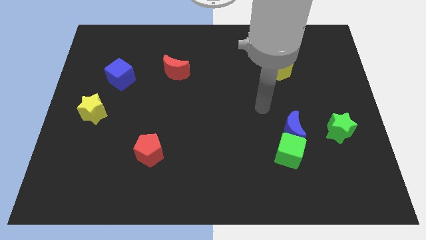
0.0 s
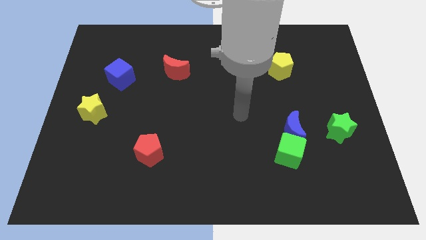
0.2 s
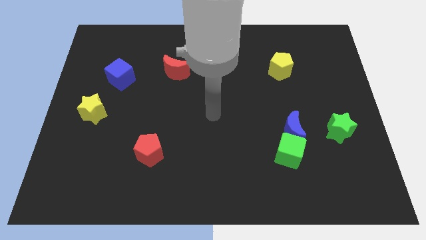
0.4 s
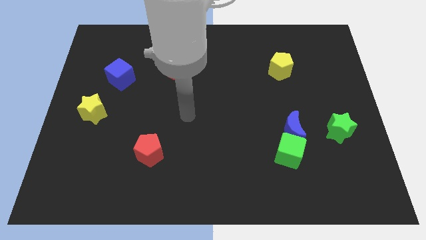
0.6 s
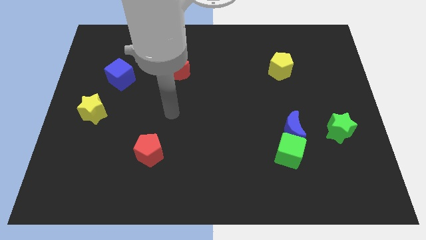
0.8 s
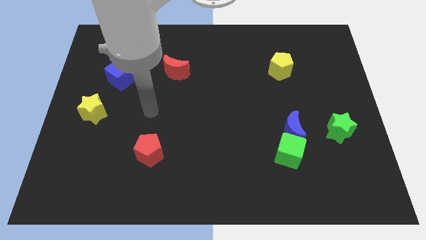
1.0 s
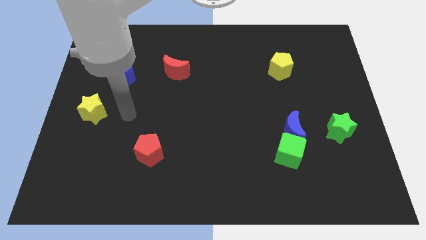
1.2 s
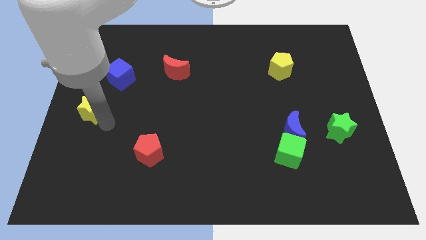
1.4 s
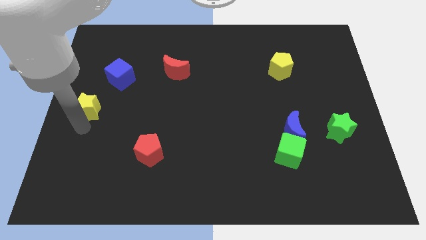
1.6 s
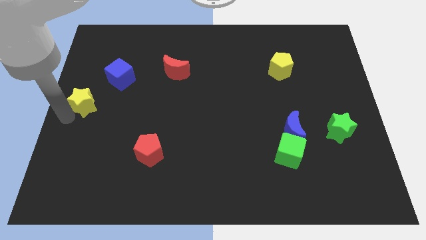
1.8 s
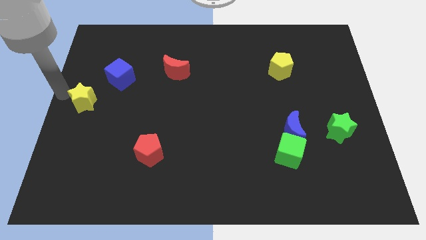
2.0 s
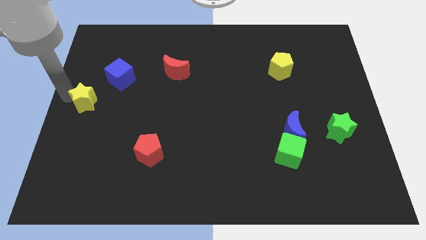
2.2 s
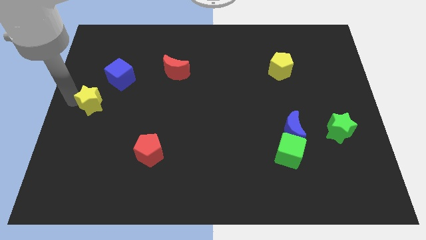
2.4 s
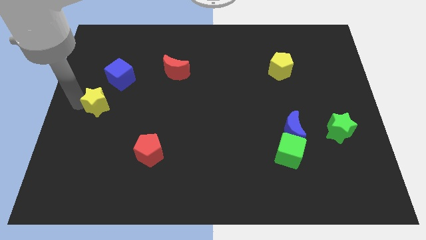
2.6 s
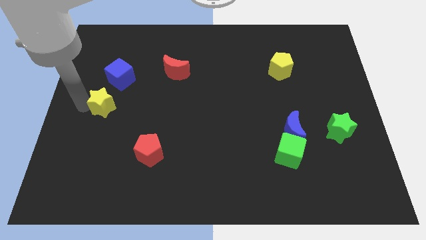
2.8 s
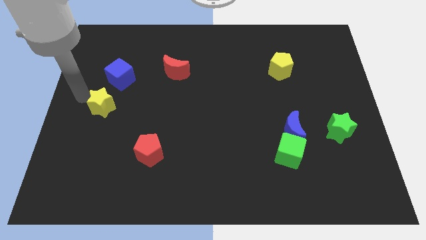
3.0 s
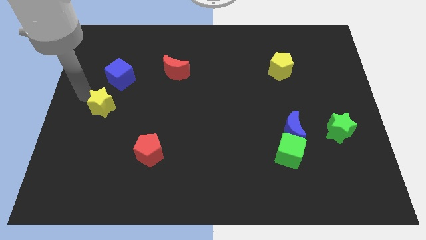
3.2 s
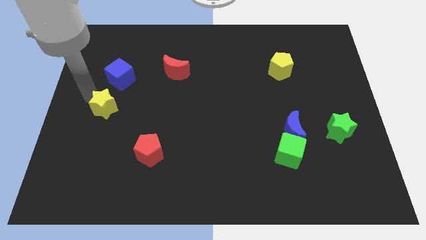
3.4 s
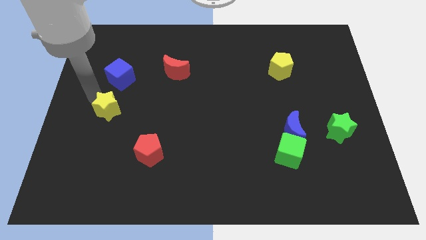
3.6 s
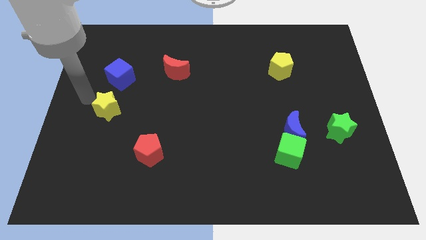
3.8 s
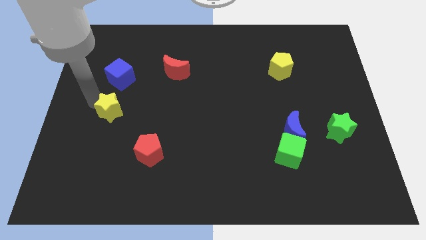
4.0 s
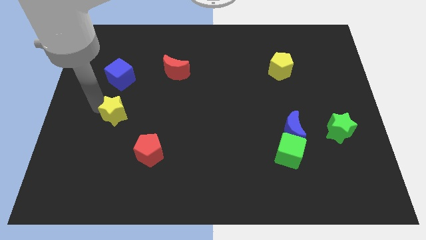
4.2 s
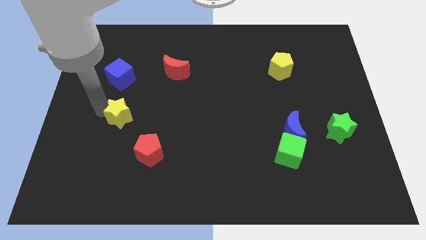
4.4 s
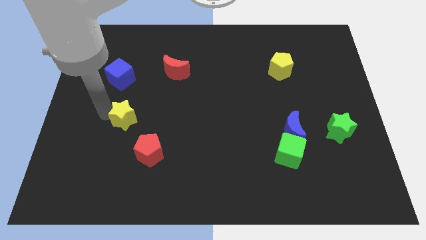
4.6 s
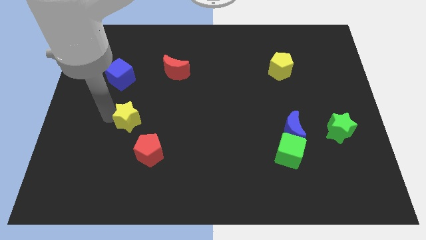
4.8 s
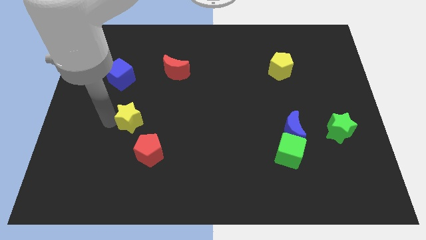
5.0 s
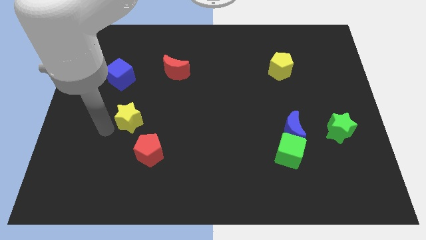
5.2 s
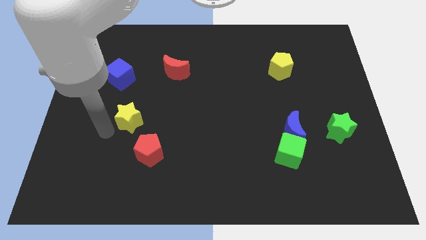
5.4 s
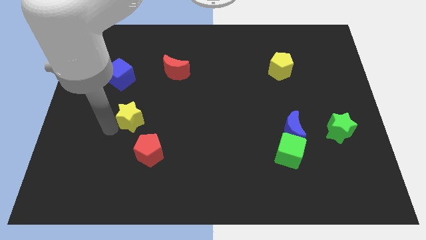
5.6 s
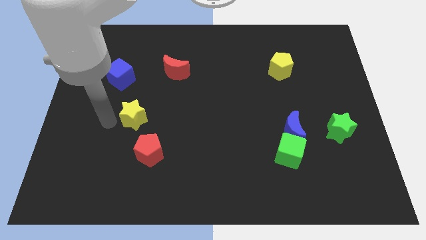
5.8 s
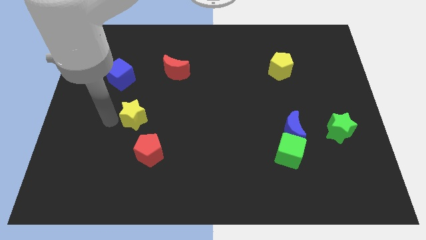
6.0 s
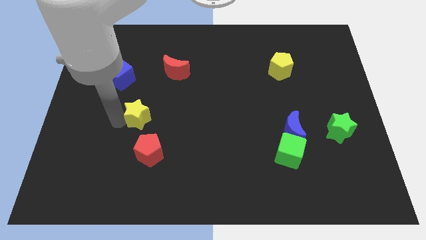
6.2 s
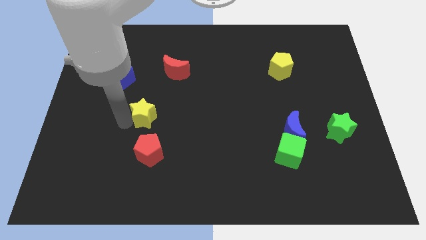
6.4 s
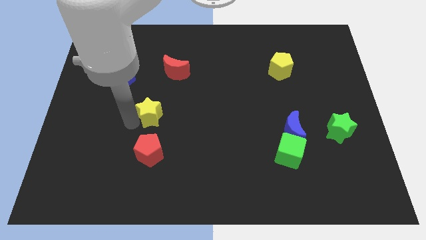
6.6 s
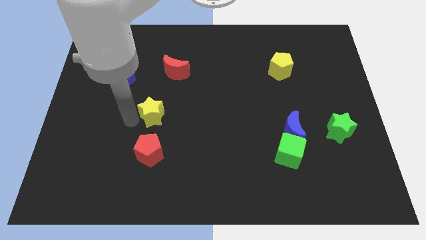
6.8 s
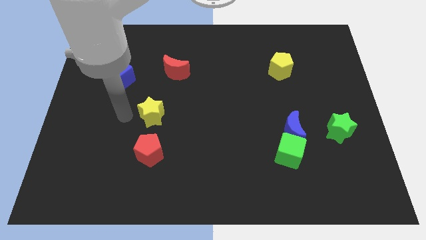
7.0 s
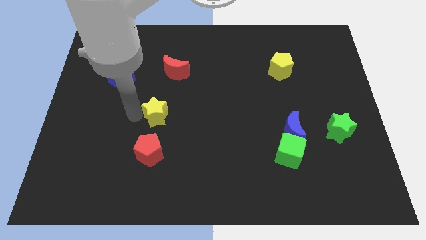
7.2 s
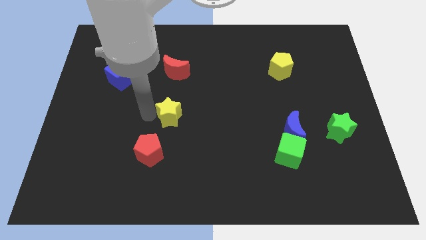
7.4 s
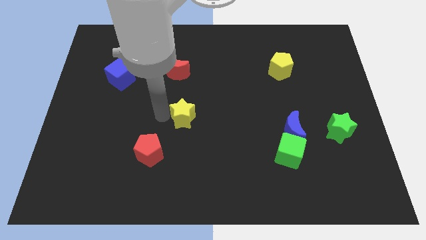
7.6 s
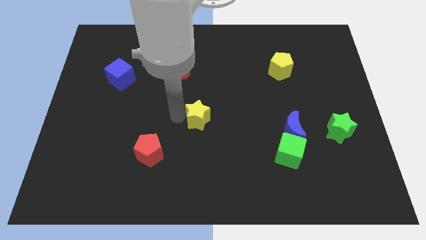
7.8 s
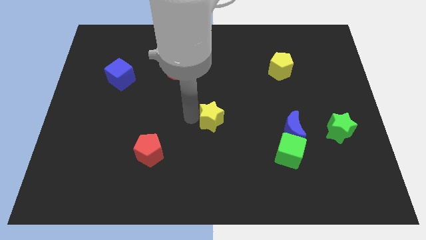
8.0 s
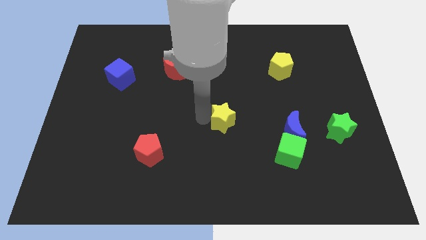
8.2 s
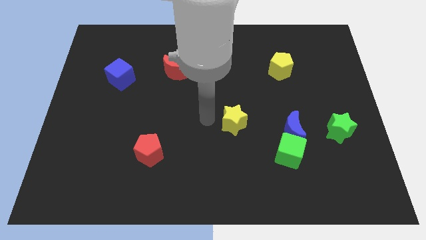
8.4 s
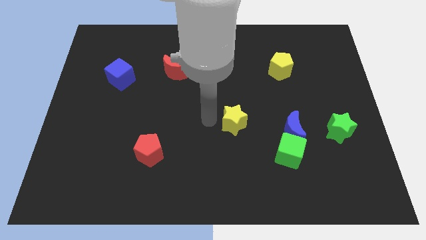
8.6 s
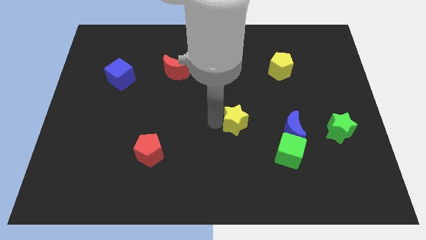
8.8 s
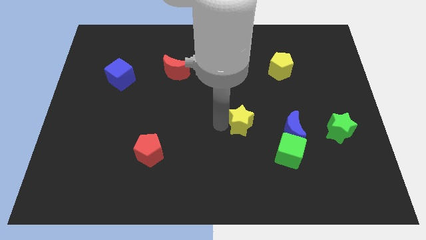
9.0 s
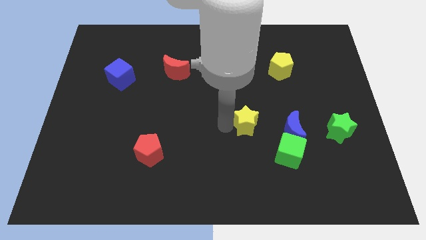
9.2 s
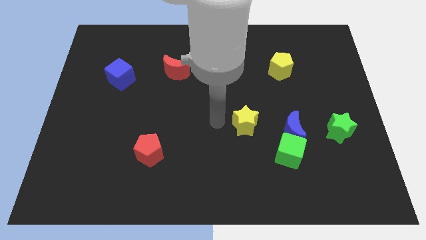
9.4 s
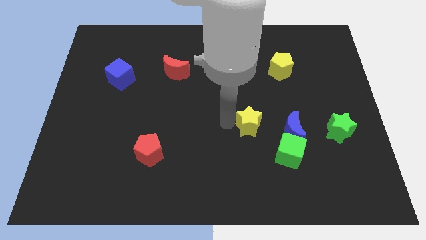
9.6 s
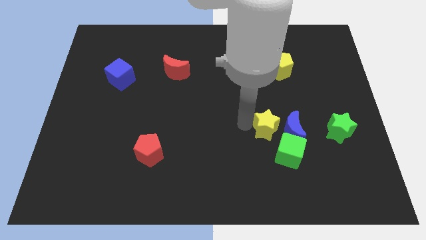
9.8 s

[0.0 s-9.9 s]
push the yellow star next to the blue moon

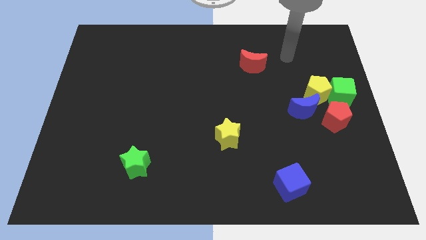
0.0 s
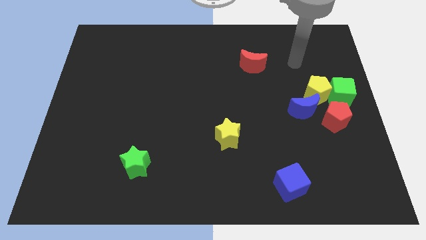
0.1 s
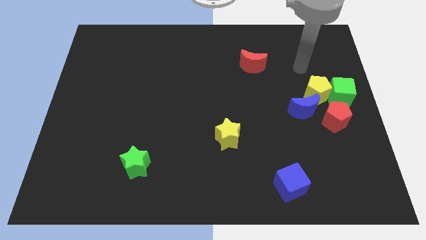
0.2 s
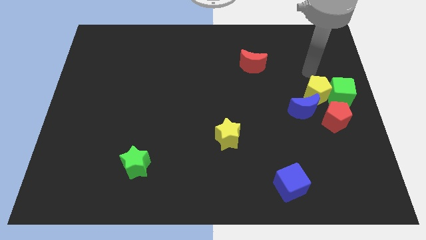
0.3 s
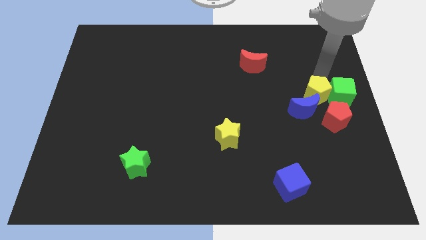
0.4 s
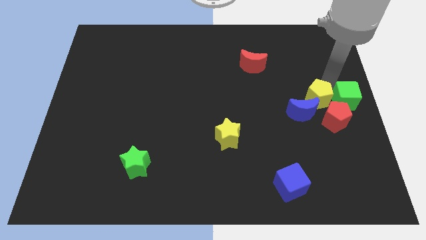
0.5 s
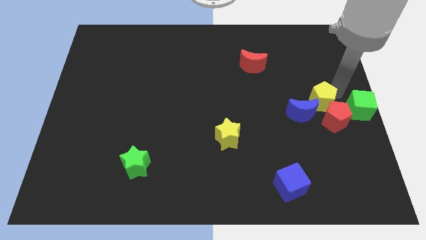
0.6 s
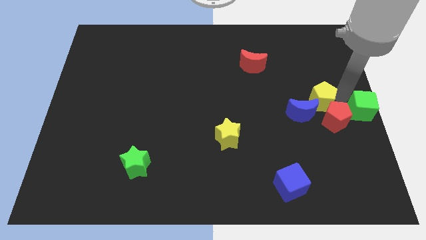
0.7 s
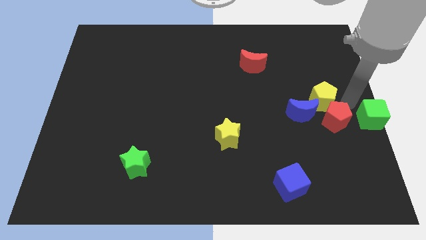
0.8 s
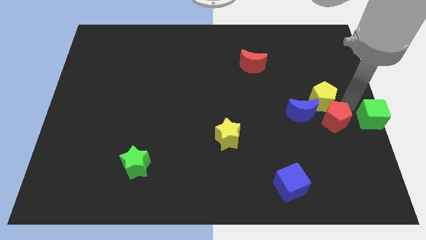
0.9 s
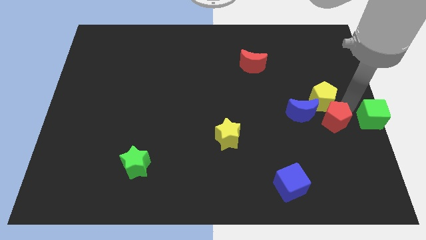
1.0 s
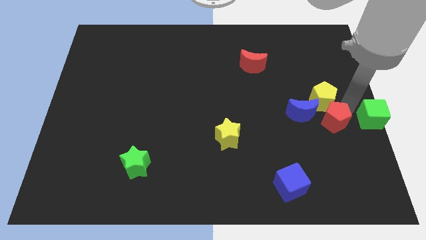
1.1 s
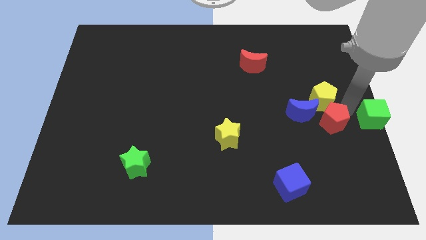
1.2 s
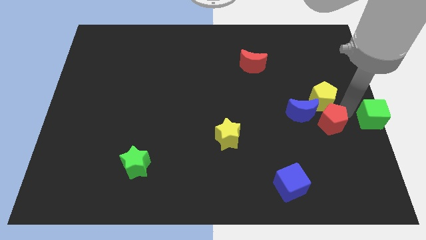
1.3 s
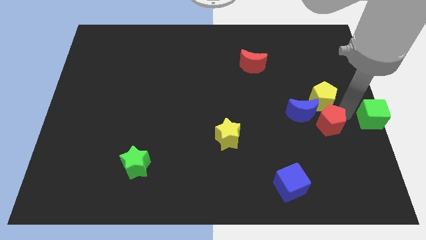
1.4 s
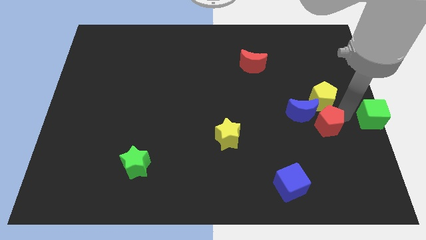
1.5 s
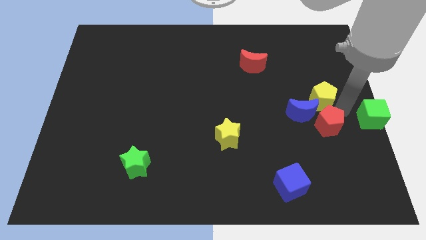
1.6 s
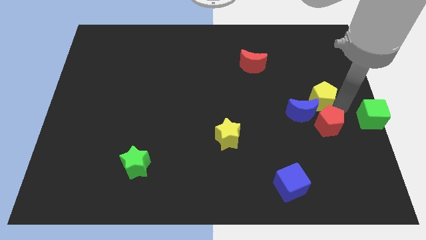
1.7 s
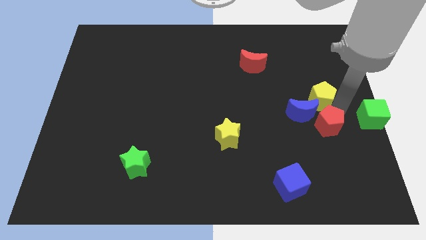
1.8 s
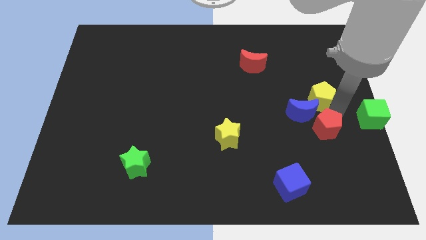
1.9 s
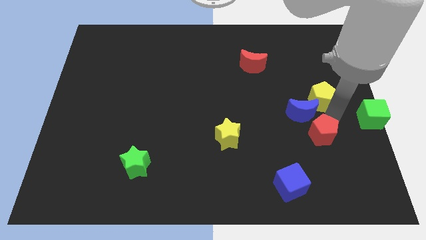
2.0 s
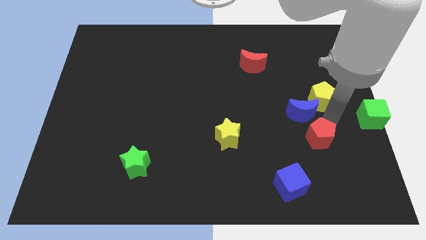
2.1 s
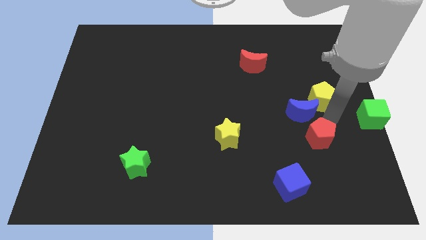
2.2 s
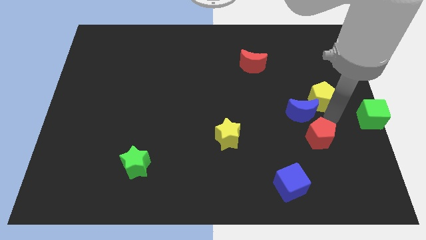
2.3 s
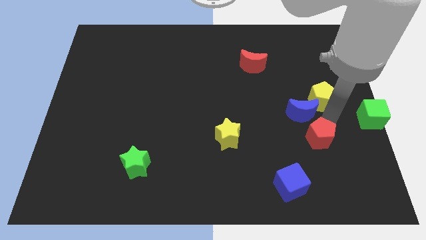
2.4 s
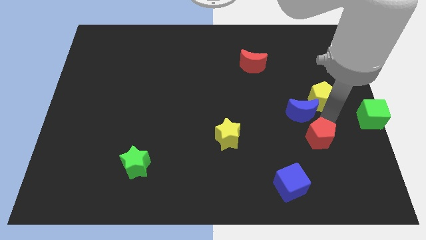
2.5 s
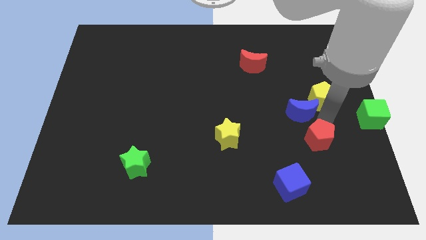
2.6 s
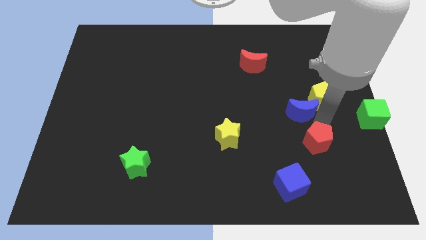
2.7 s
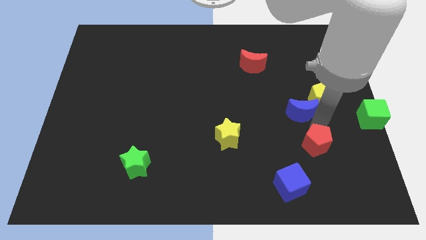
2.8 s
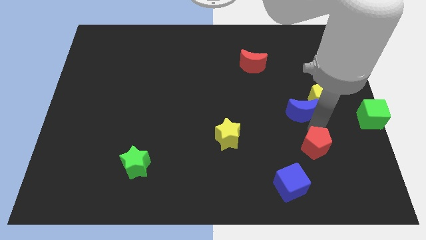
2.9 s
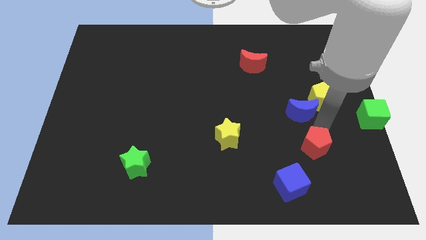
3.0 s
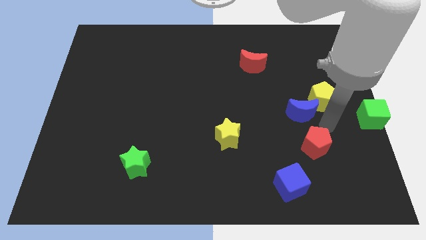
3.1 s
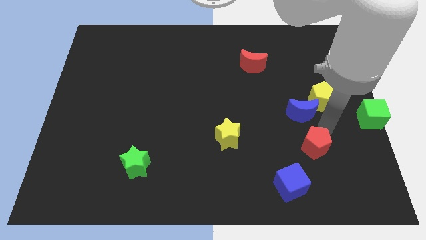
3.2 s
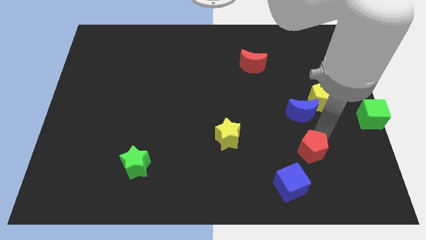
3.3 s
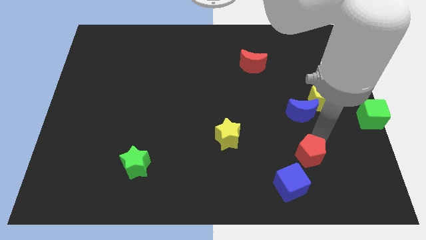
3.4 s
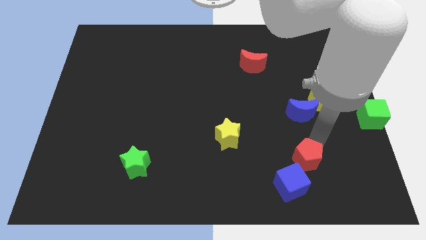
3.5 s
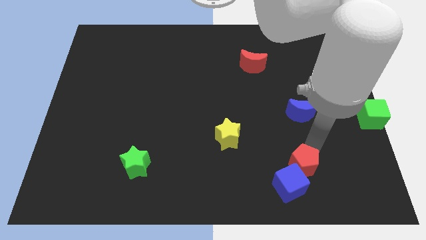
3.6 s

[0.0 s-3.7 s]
move the red pentagon next to the blue cube
